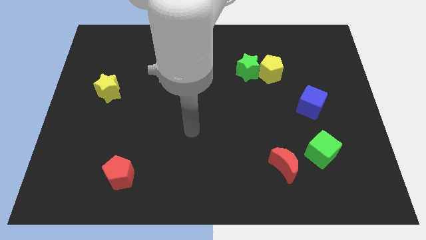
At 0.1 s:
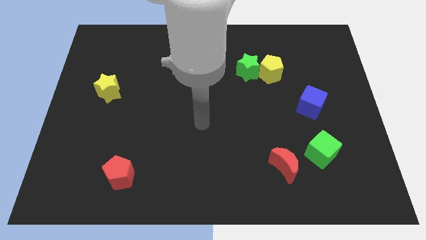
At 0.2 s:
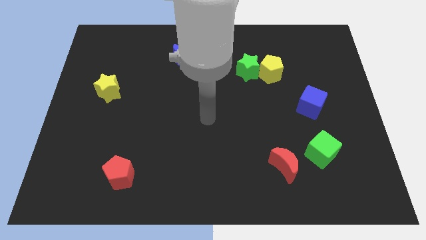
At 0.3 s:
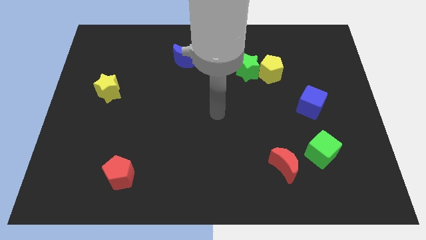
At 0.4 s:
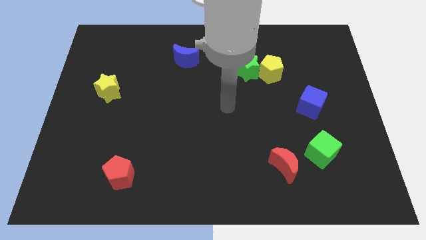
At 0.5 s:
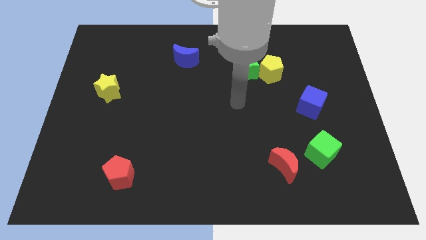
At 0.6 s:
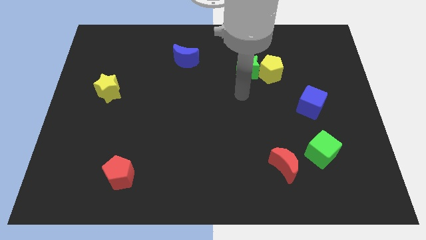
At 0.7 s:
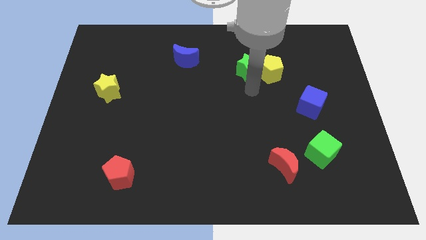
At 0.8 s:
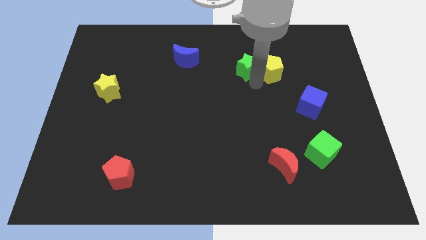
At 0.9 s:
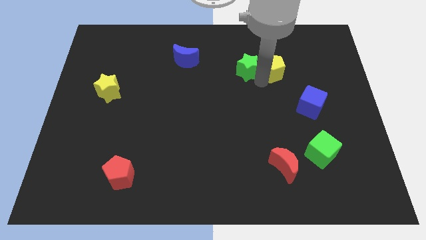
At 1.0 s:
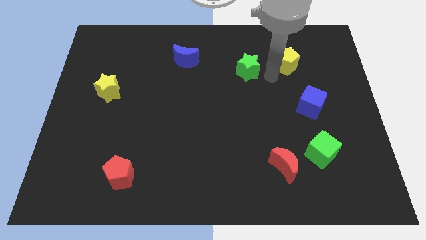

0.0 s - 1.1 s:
separate the green star from the yellow pentagon

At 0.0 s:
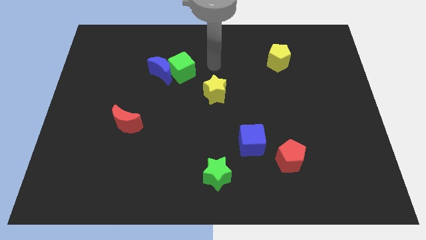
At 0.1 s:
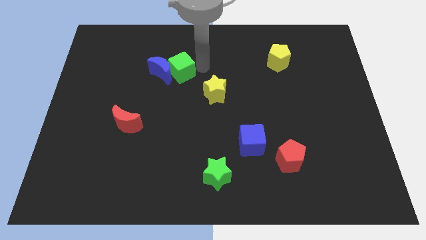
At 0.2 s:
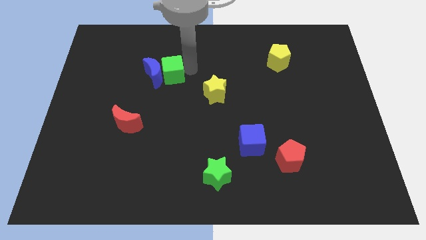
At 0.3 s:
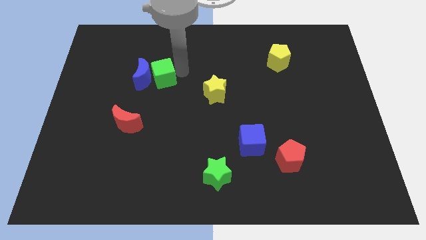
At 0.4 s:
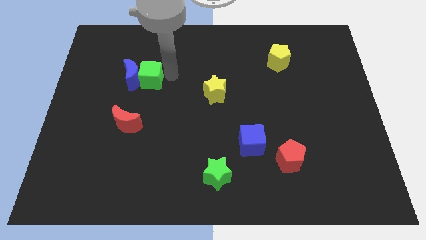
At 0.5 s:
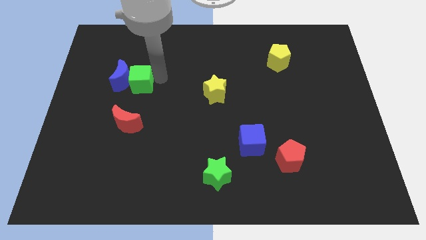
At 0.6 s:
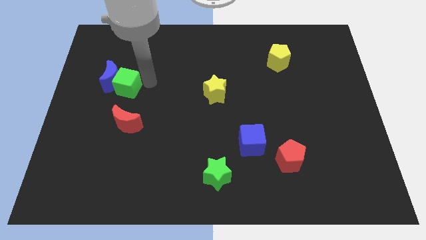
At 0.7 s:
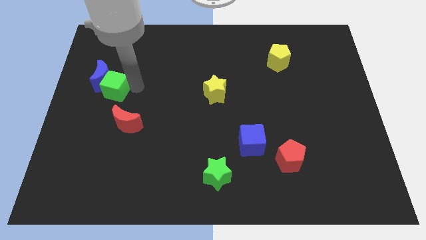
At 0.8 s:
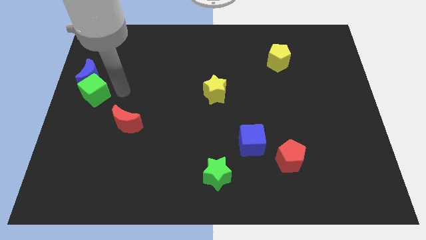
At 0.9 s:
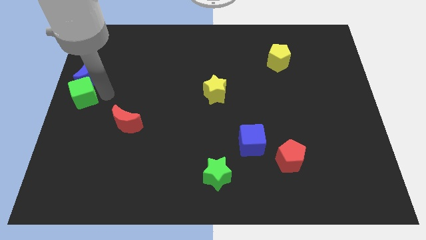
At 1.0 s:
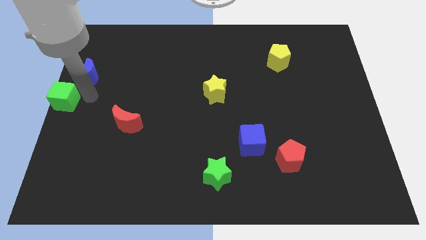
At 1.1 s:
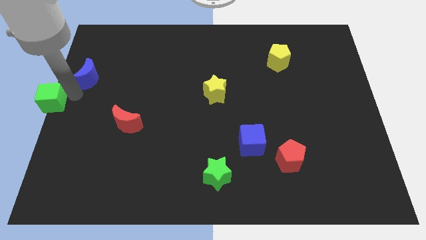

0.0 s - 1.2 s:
move the blue moon away from the green cube

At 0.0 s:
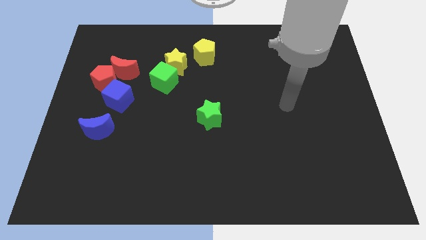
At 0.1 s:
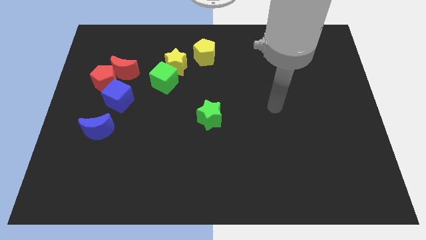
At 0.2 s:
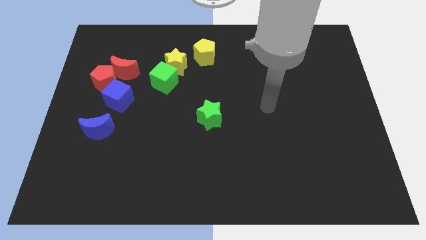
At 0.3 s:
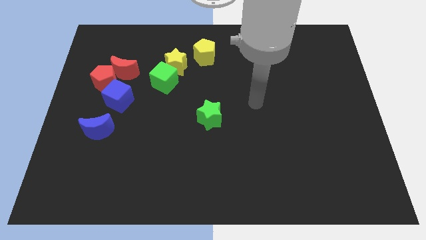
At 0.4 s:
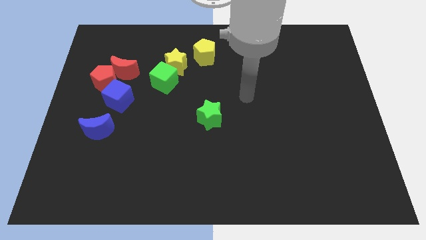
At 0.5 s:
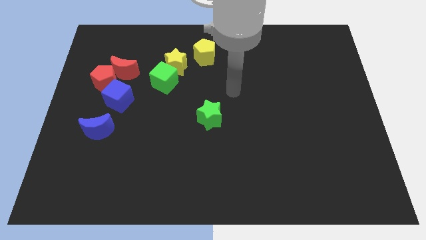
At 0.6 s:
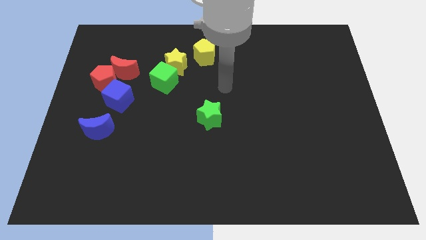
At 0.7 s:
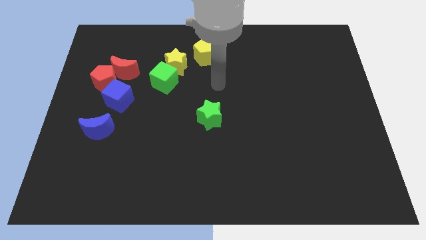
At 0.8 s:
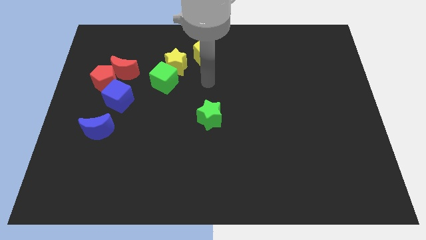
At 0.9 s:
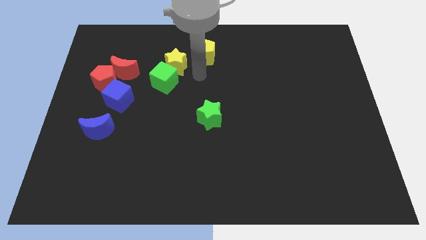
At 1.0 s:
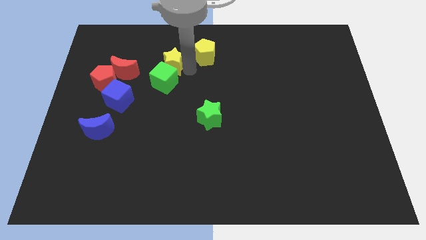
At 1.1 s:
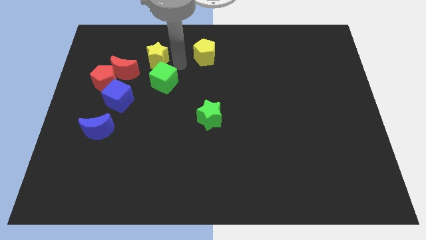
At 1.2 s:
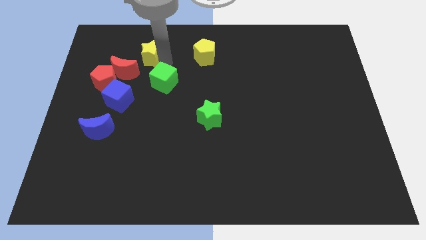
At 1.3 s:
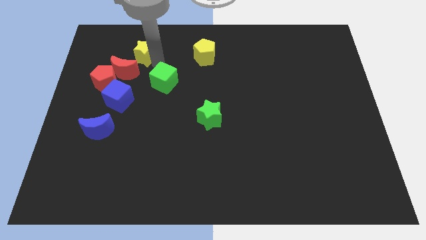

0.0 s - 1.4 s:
move the green cube away from the yellow star

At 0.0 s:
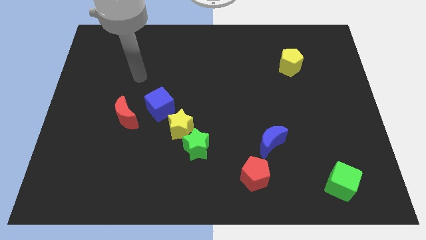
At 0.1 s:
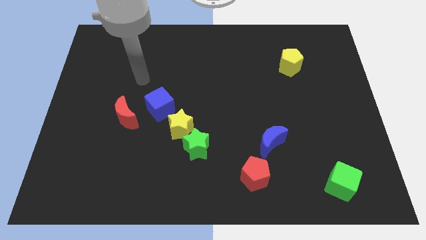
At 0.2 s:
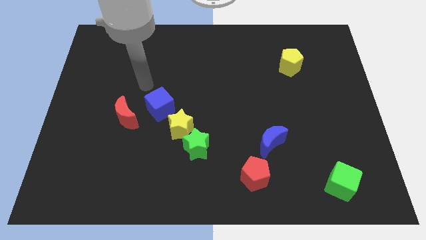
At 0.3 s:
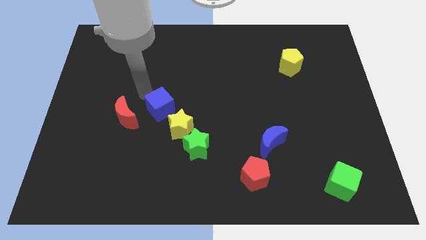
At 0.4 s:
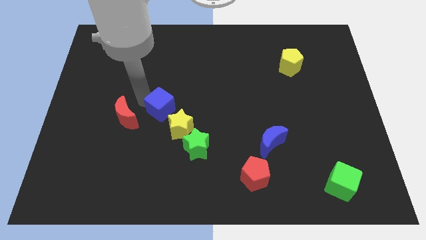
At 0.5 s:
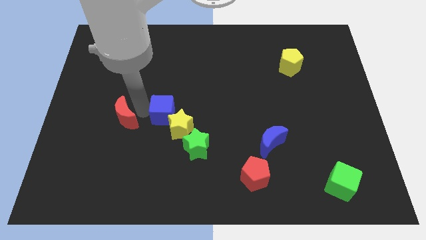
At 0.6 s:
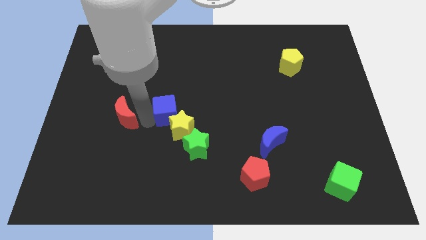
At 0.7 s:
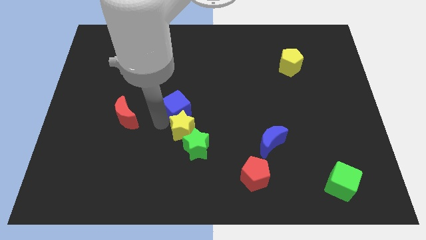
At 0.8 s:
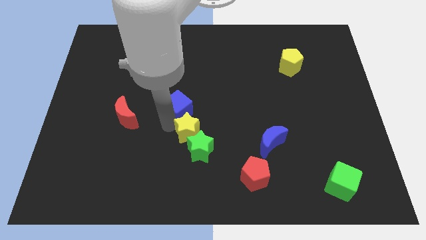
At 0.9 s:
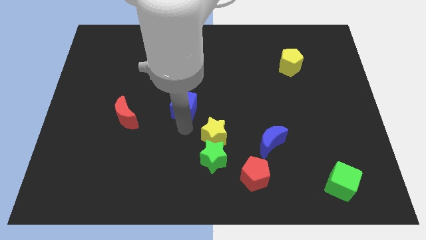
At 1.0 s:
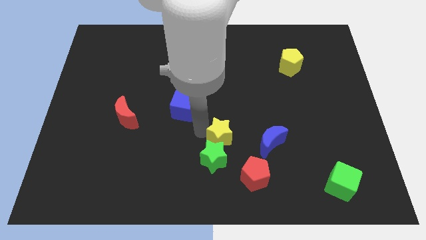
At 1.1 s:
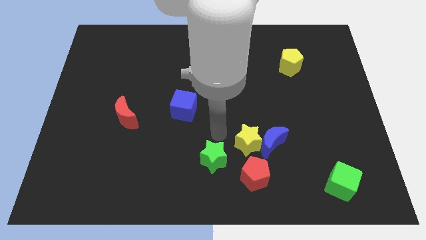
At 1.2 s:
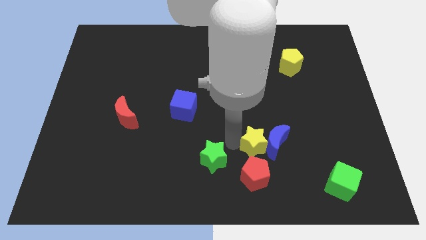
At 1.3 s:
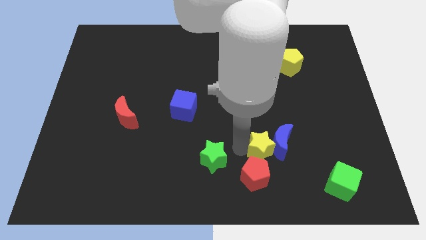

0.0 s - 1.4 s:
separate the green star from the yellow star

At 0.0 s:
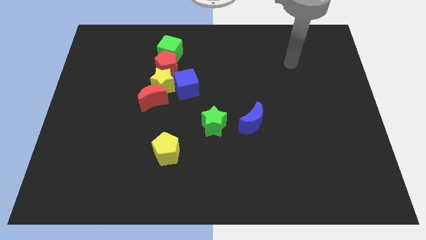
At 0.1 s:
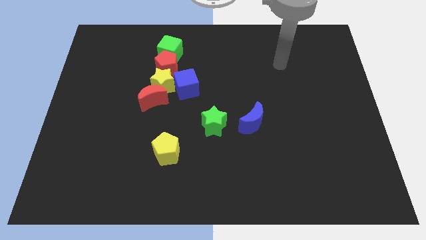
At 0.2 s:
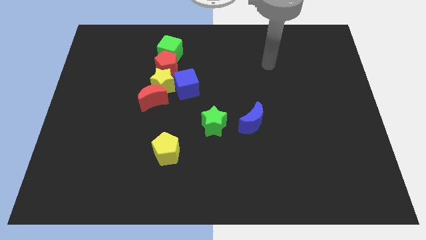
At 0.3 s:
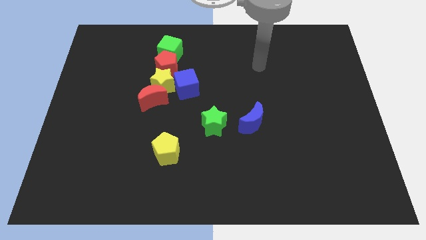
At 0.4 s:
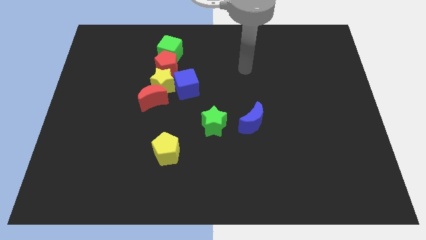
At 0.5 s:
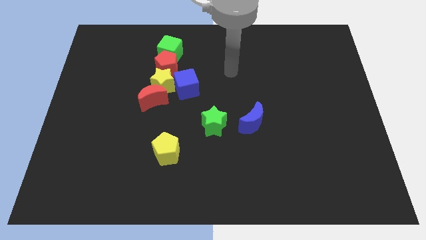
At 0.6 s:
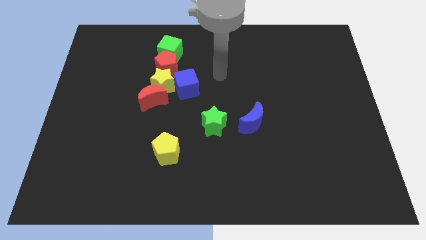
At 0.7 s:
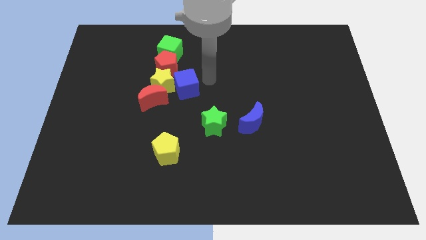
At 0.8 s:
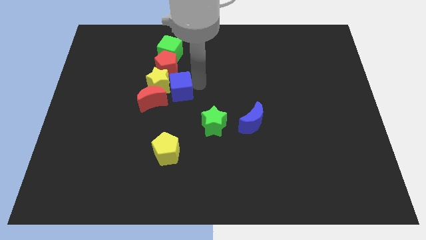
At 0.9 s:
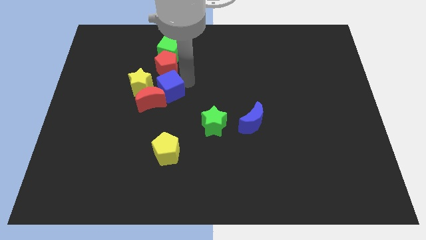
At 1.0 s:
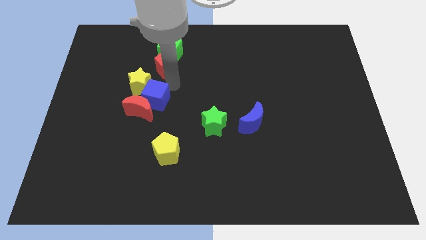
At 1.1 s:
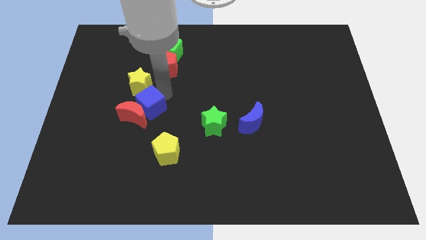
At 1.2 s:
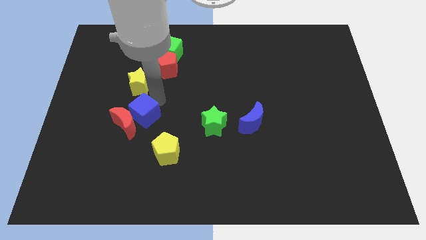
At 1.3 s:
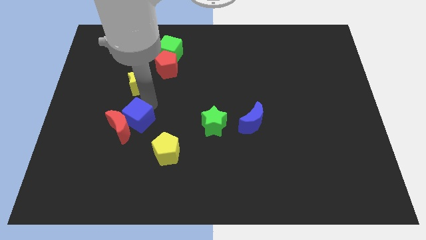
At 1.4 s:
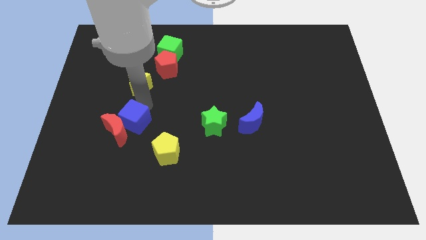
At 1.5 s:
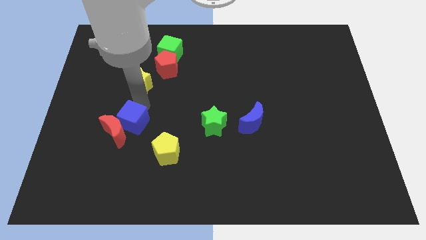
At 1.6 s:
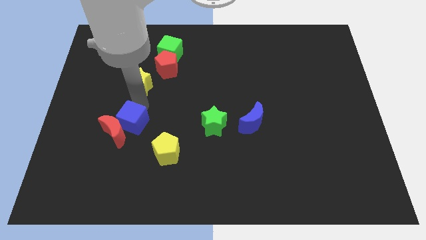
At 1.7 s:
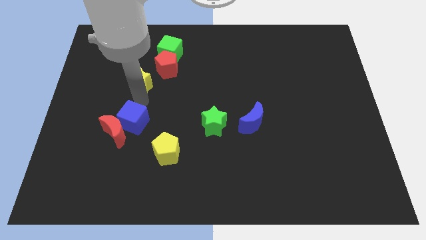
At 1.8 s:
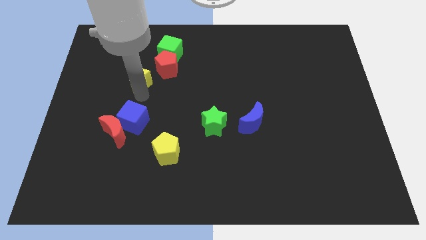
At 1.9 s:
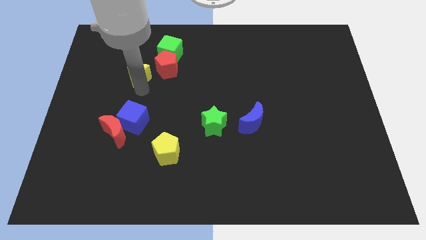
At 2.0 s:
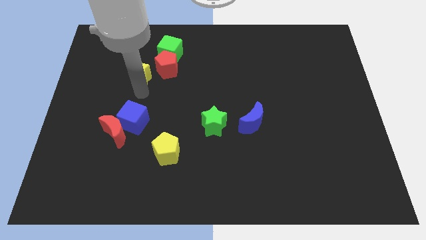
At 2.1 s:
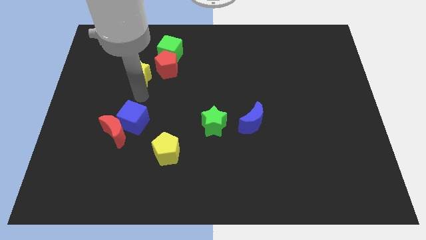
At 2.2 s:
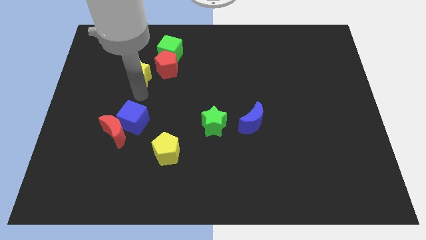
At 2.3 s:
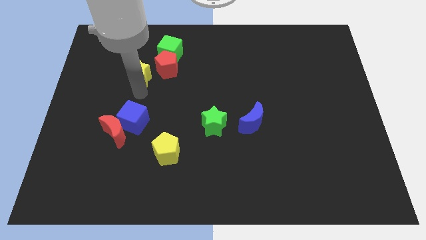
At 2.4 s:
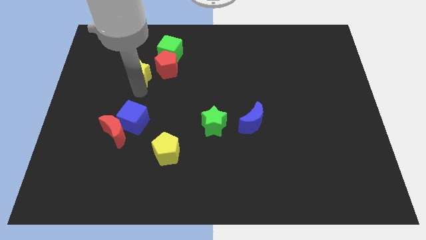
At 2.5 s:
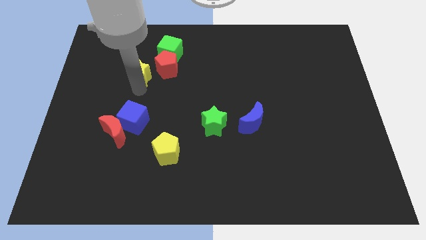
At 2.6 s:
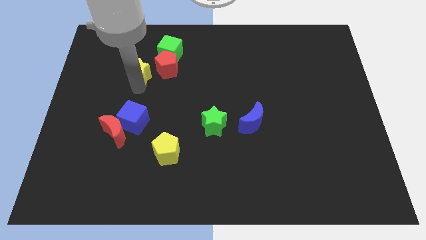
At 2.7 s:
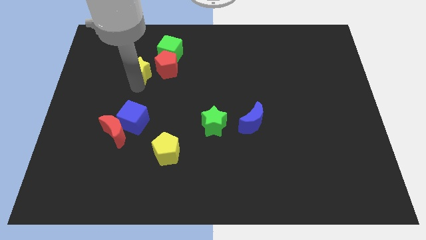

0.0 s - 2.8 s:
move the yellow star away from the group

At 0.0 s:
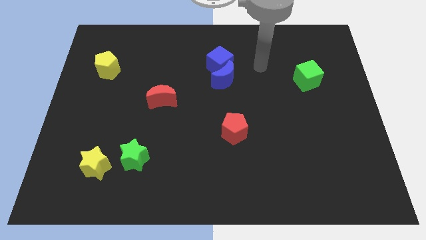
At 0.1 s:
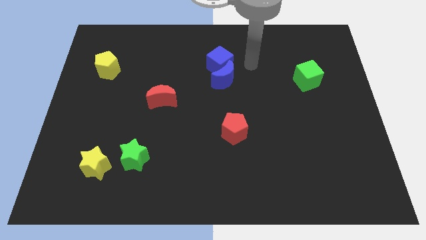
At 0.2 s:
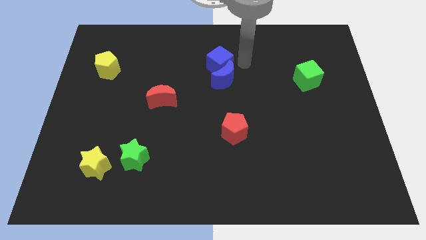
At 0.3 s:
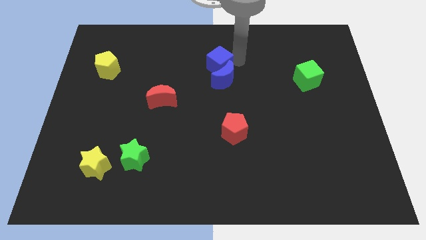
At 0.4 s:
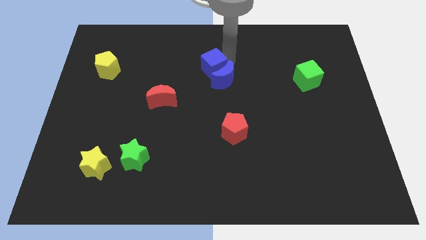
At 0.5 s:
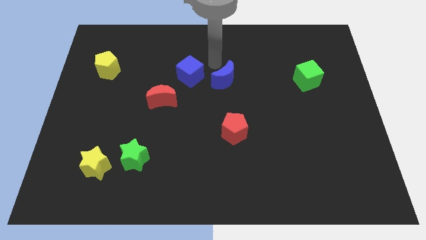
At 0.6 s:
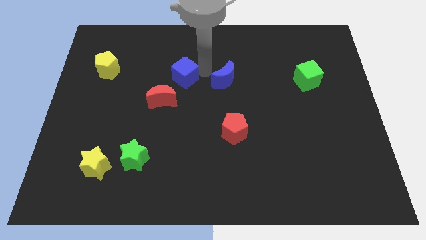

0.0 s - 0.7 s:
separate the blue moon from the blue cube

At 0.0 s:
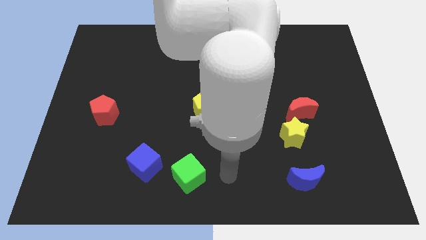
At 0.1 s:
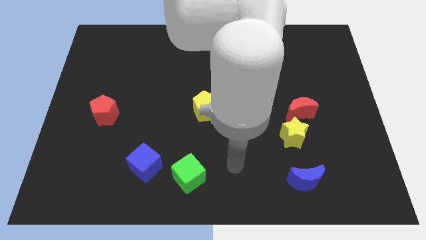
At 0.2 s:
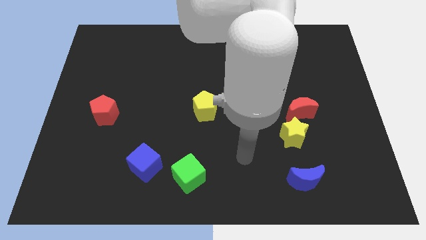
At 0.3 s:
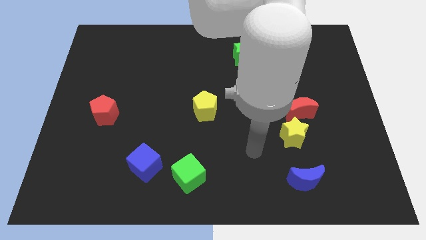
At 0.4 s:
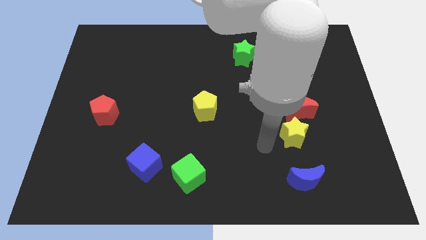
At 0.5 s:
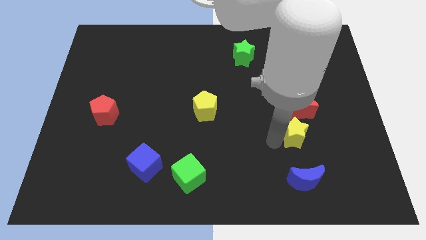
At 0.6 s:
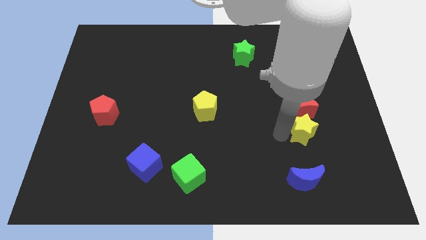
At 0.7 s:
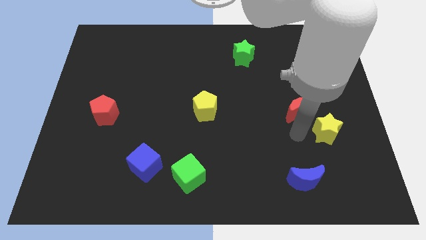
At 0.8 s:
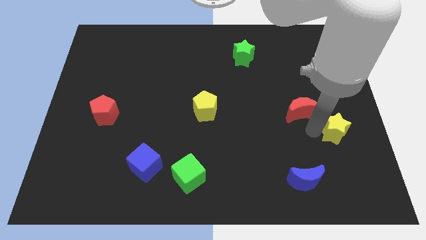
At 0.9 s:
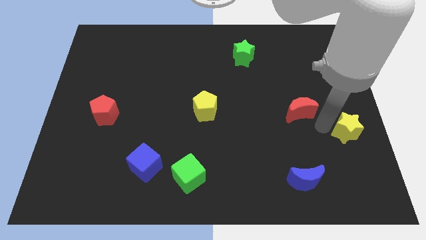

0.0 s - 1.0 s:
move the red moon away from the yellow star
